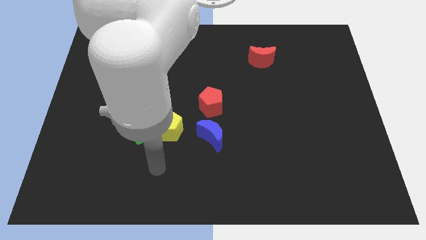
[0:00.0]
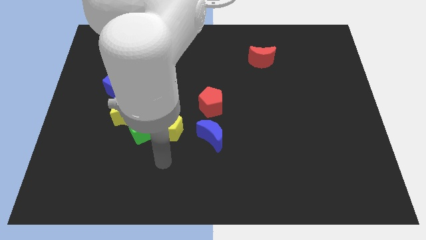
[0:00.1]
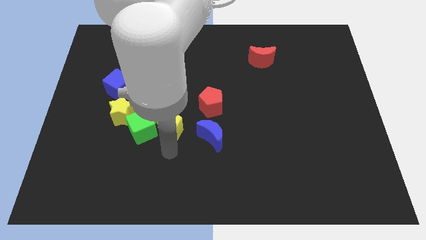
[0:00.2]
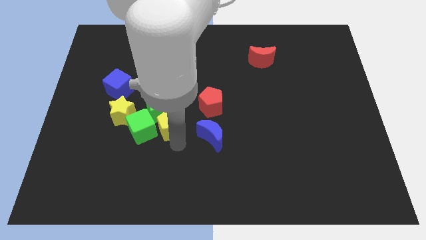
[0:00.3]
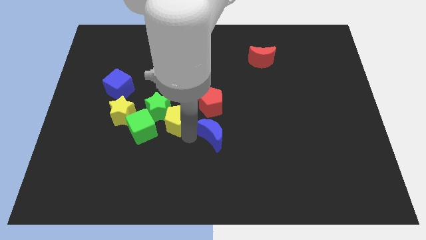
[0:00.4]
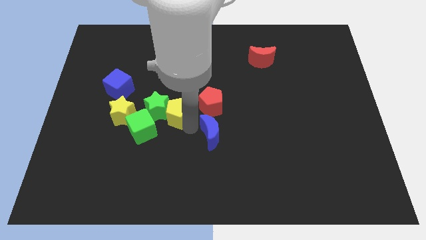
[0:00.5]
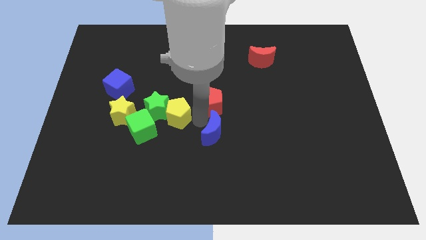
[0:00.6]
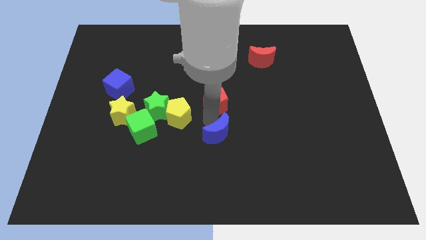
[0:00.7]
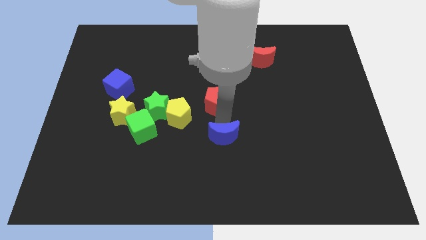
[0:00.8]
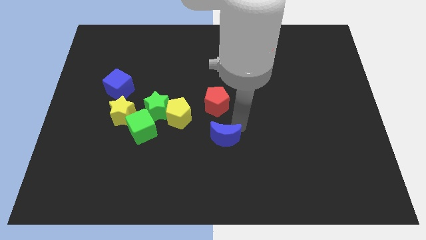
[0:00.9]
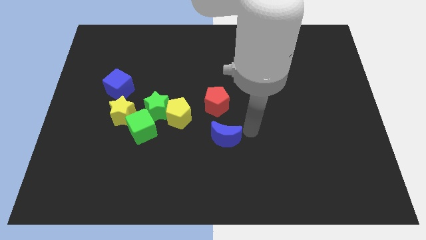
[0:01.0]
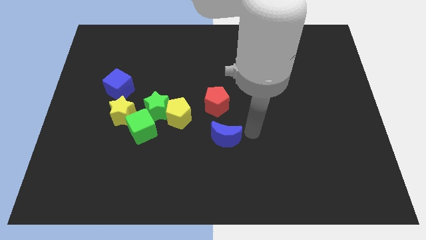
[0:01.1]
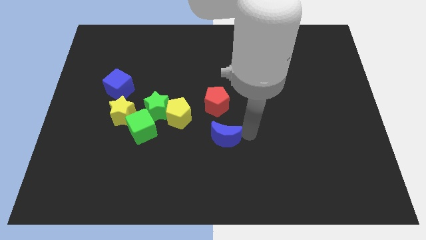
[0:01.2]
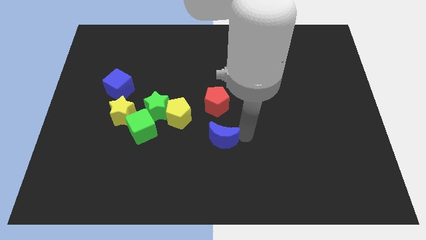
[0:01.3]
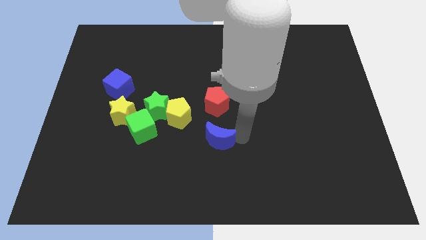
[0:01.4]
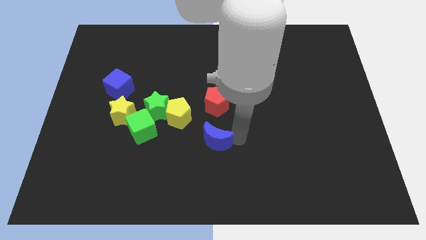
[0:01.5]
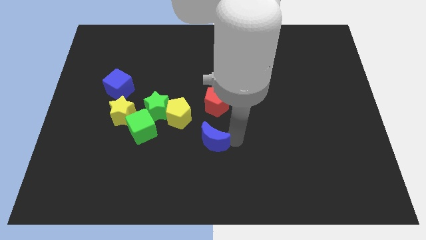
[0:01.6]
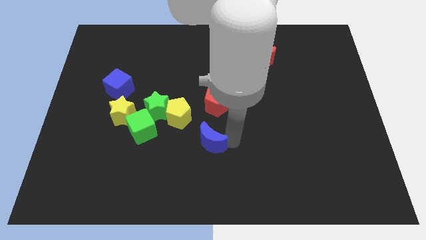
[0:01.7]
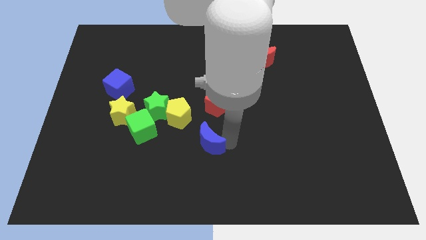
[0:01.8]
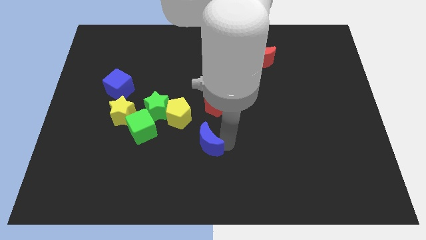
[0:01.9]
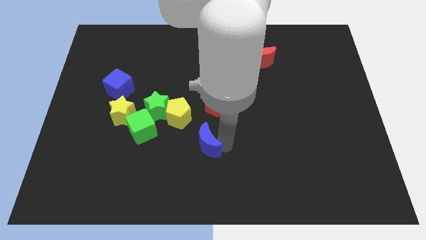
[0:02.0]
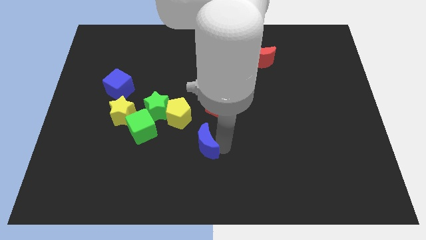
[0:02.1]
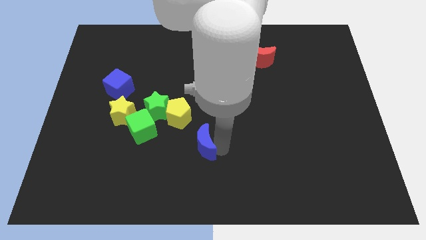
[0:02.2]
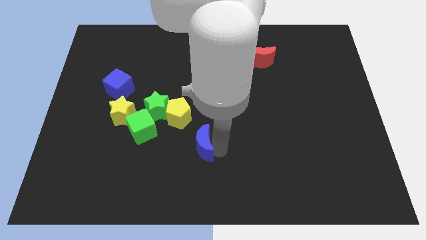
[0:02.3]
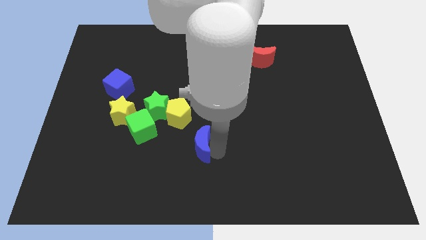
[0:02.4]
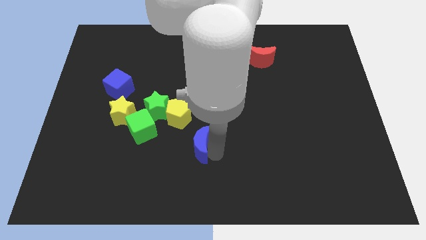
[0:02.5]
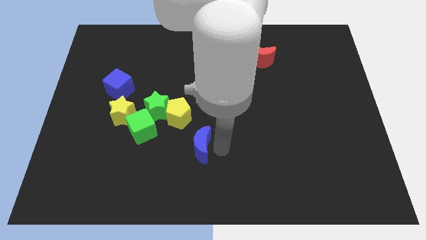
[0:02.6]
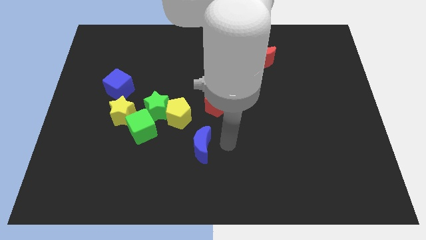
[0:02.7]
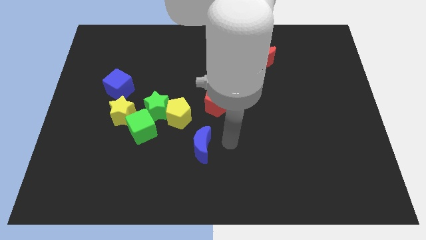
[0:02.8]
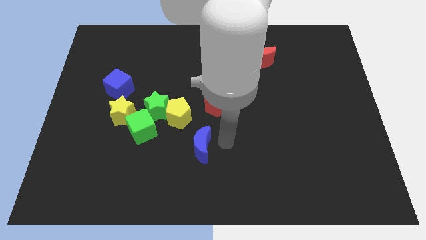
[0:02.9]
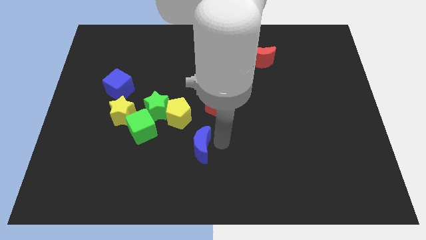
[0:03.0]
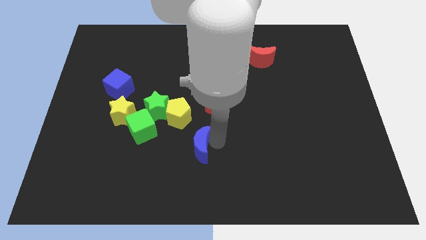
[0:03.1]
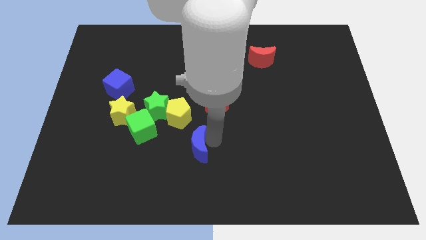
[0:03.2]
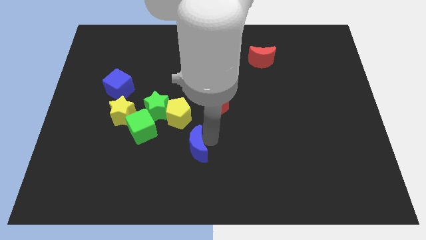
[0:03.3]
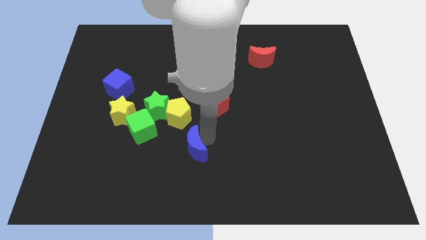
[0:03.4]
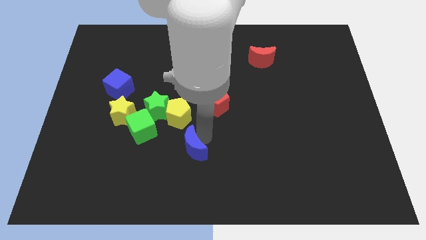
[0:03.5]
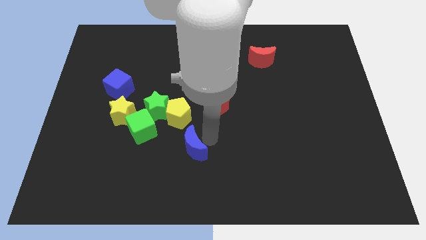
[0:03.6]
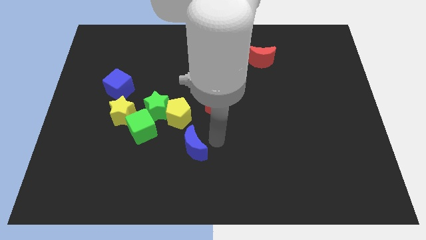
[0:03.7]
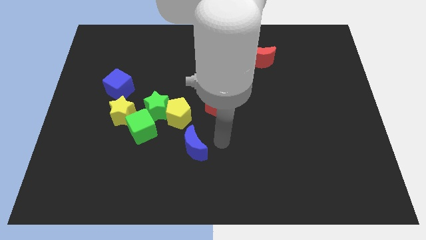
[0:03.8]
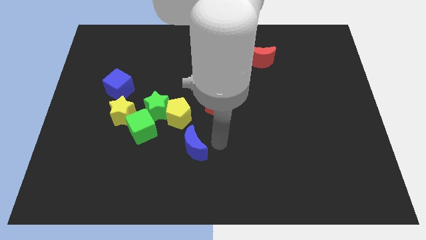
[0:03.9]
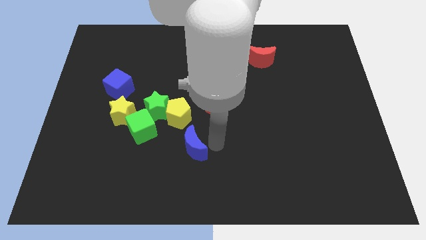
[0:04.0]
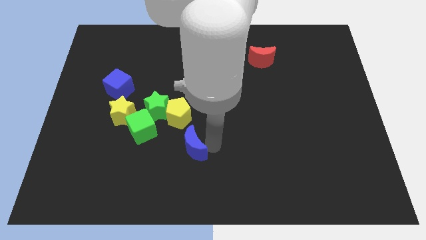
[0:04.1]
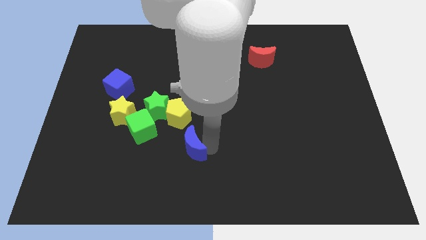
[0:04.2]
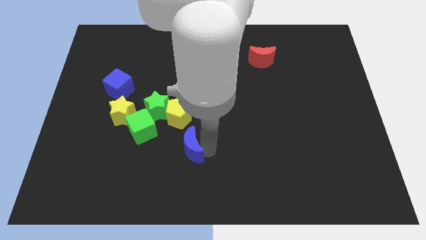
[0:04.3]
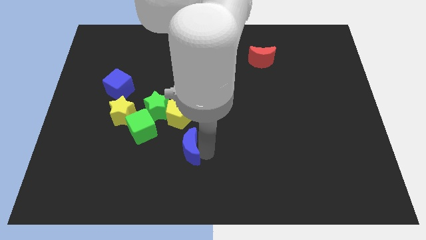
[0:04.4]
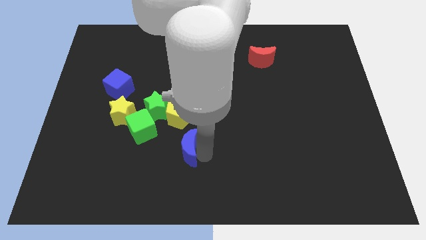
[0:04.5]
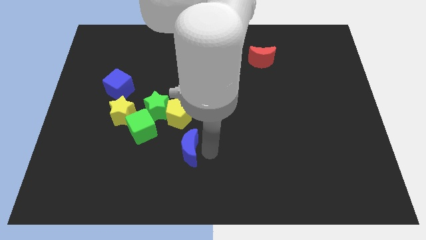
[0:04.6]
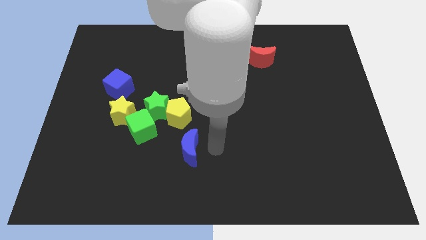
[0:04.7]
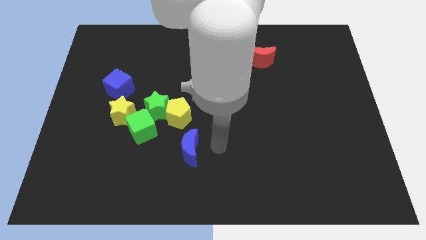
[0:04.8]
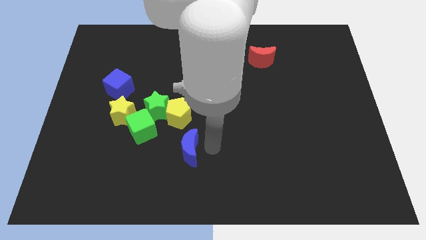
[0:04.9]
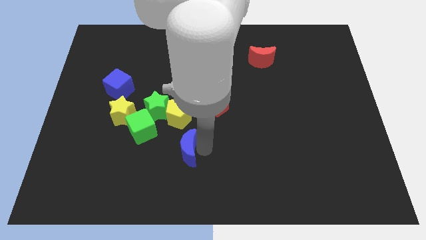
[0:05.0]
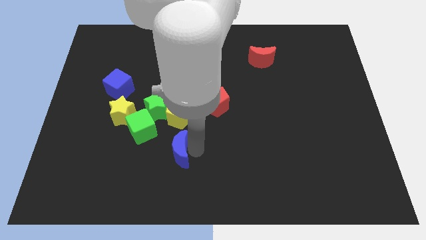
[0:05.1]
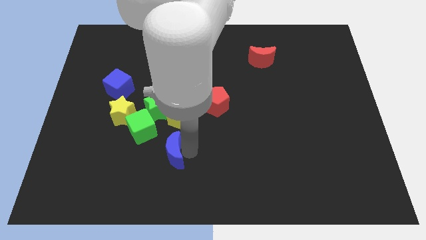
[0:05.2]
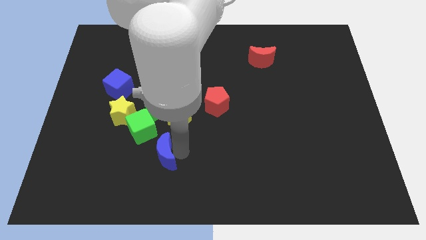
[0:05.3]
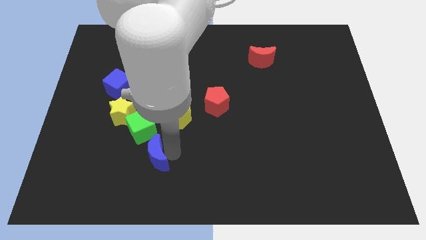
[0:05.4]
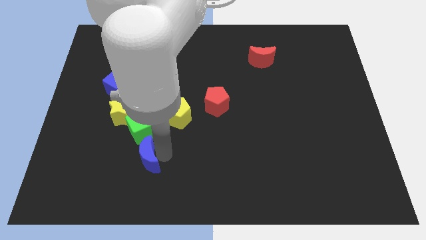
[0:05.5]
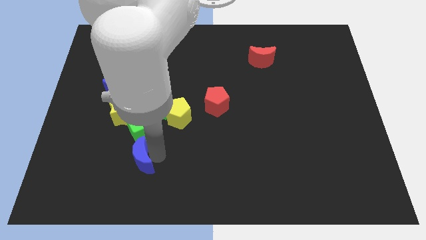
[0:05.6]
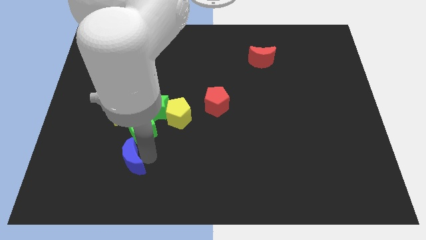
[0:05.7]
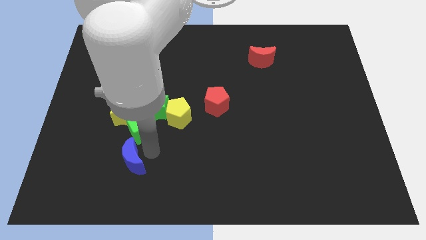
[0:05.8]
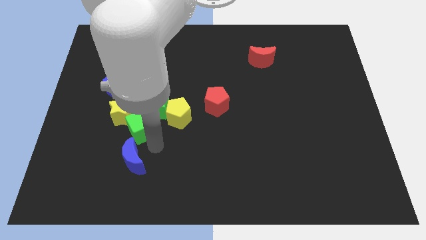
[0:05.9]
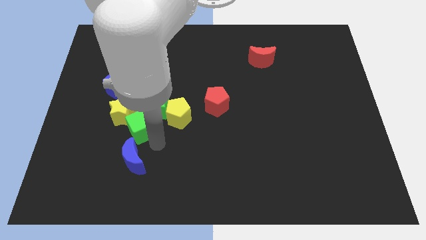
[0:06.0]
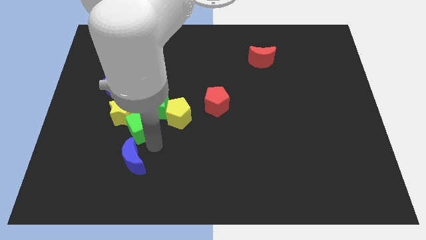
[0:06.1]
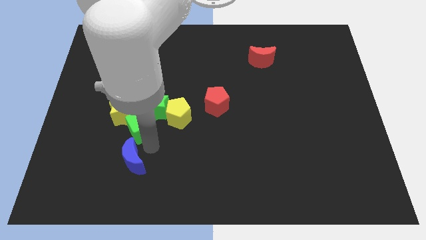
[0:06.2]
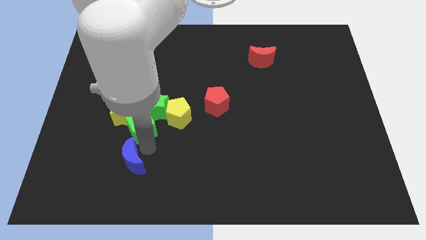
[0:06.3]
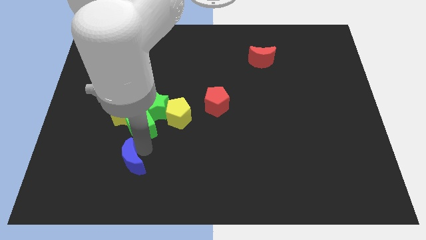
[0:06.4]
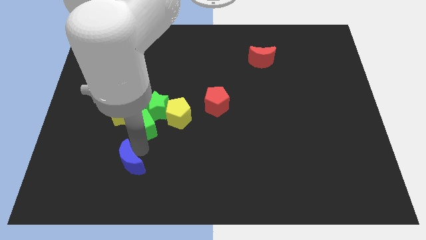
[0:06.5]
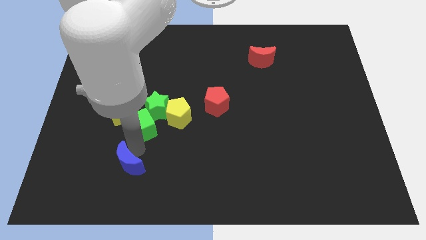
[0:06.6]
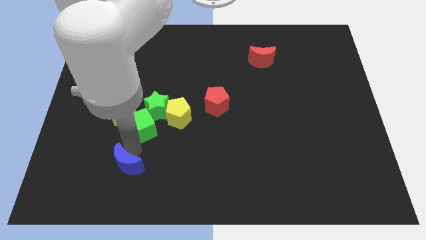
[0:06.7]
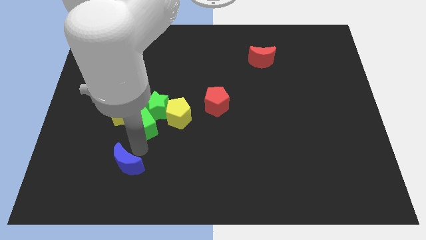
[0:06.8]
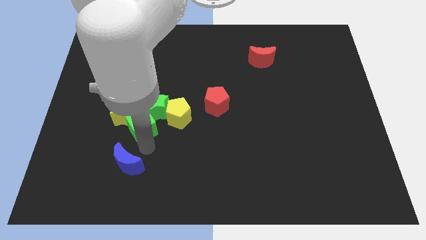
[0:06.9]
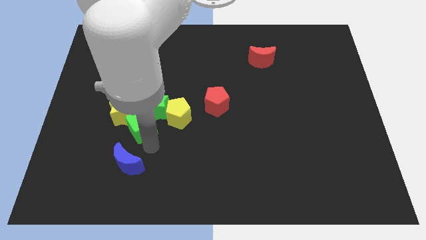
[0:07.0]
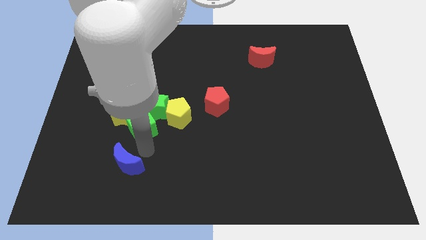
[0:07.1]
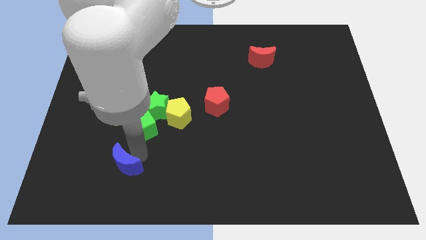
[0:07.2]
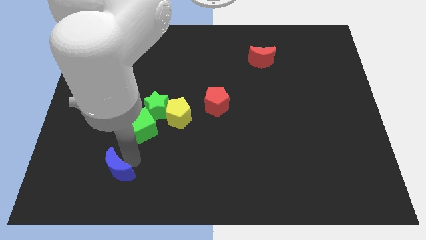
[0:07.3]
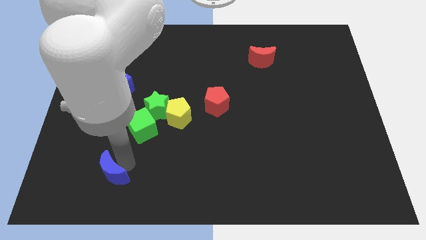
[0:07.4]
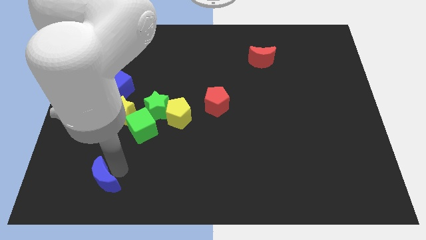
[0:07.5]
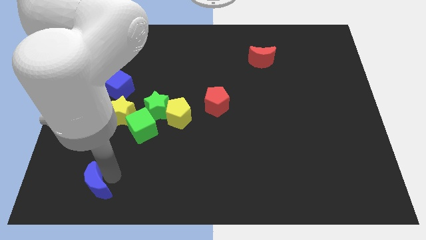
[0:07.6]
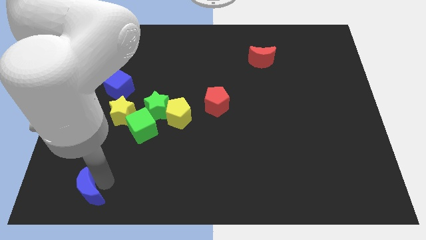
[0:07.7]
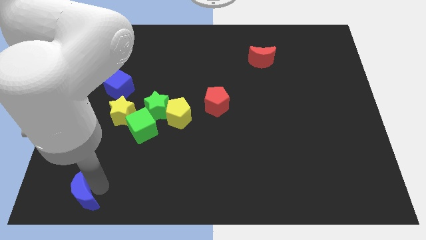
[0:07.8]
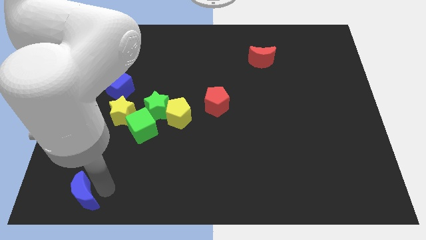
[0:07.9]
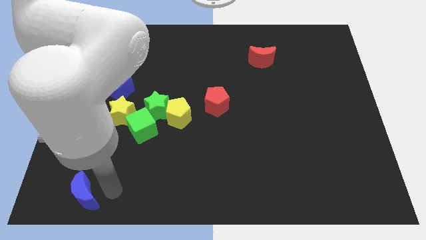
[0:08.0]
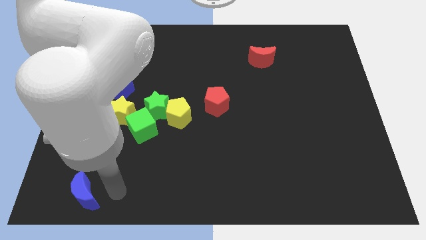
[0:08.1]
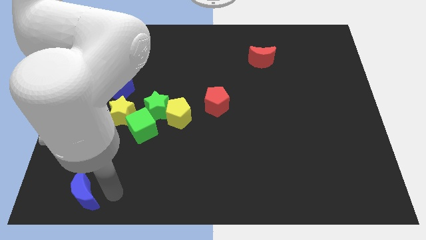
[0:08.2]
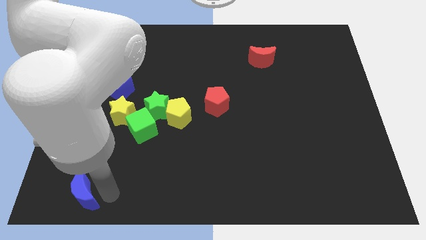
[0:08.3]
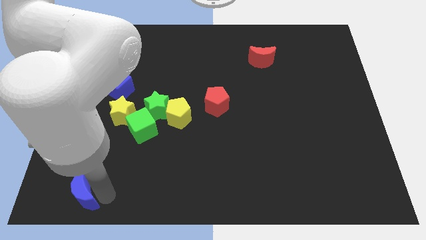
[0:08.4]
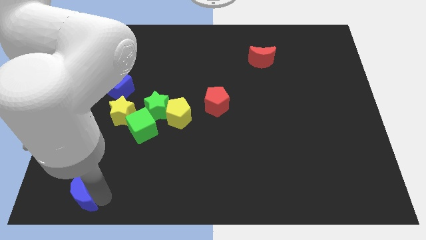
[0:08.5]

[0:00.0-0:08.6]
put the blue moon to the bottom left corner
